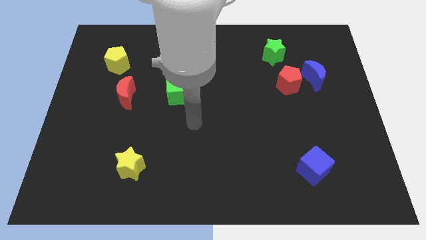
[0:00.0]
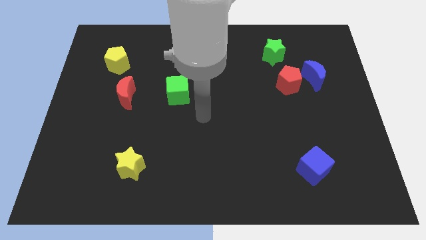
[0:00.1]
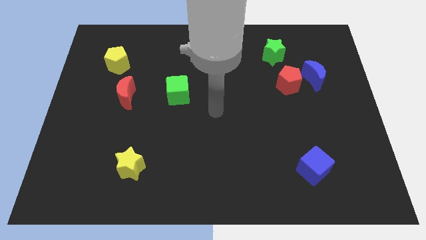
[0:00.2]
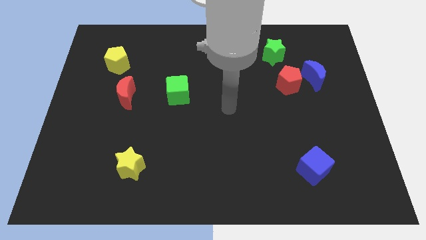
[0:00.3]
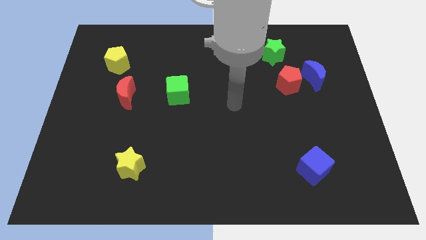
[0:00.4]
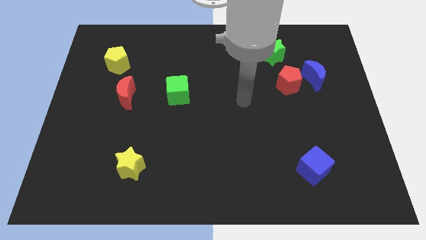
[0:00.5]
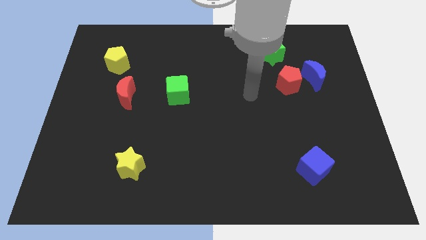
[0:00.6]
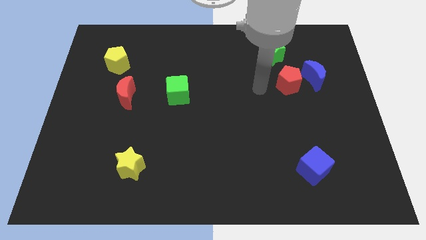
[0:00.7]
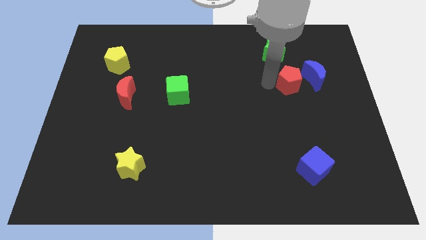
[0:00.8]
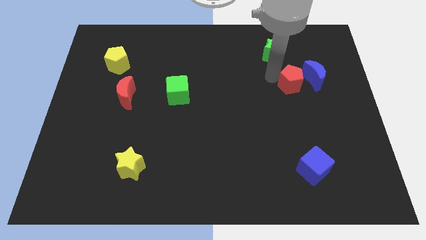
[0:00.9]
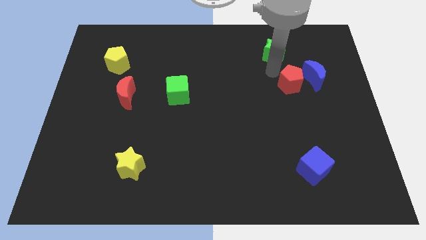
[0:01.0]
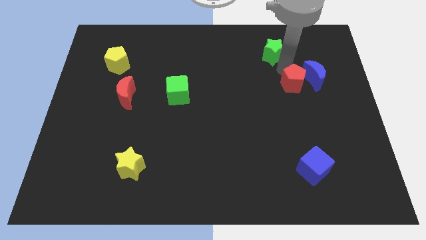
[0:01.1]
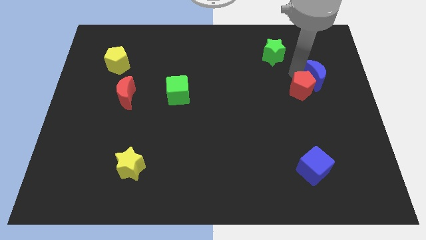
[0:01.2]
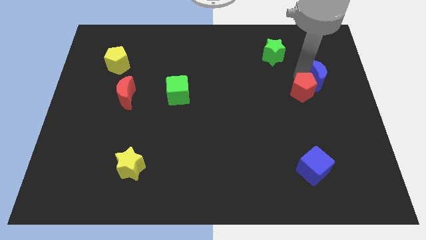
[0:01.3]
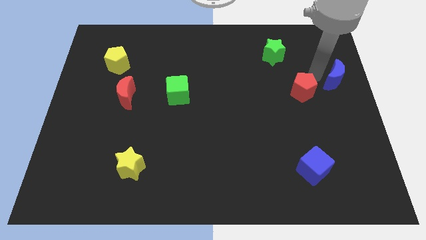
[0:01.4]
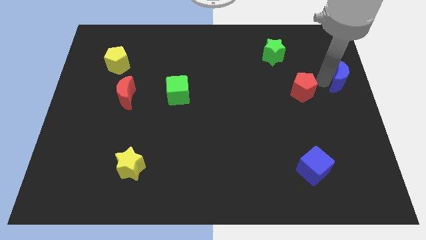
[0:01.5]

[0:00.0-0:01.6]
pull the red pentagon apart from the blue moon

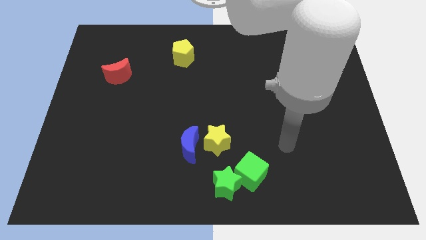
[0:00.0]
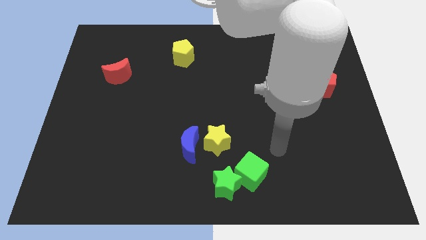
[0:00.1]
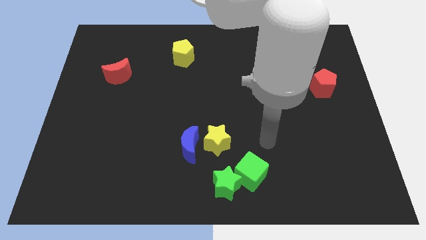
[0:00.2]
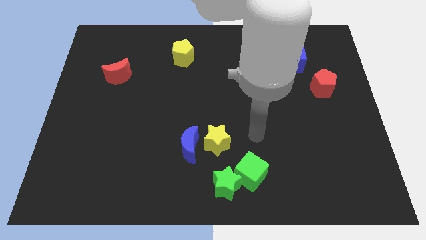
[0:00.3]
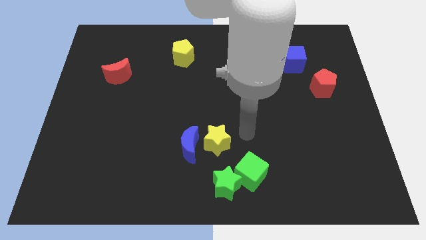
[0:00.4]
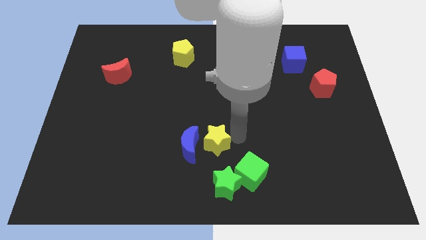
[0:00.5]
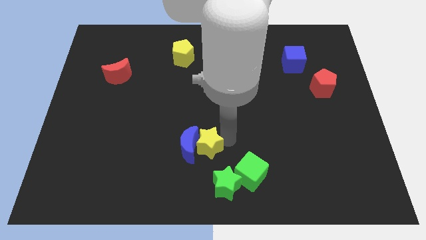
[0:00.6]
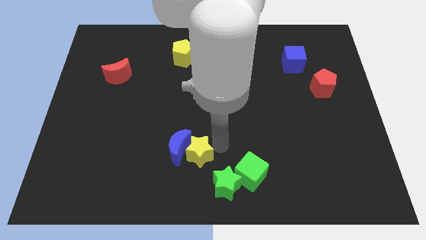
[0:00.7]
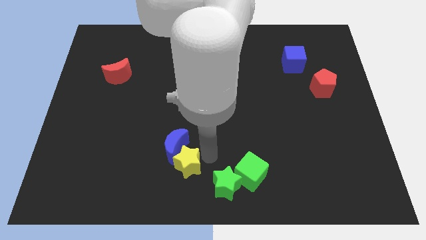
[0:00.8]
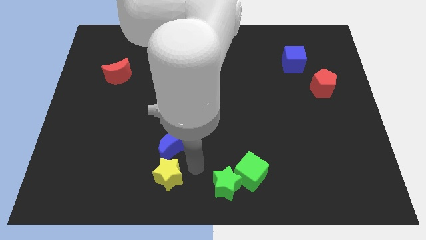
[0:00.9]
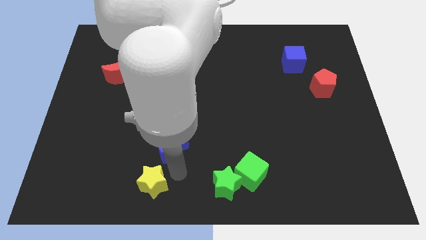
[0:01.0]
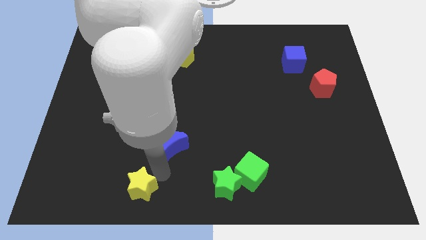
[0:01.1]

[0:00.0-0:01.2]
separate the blue moon from the yellow star

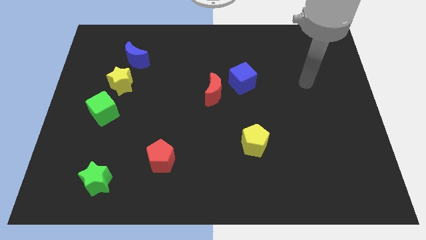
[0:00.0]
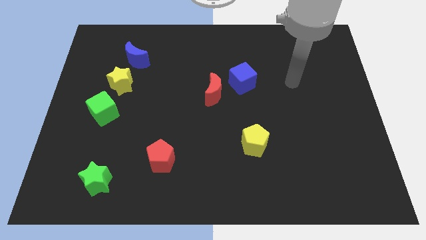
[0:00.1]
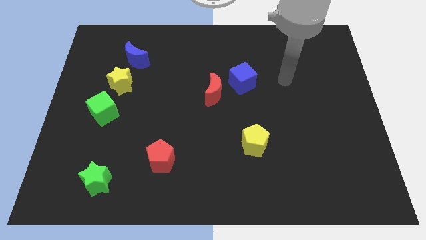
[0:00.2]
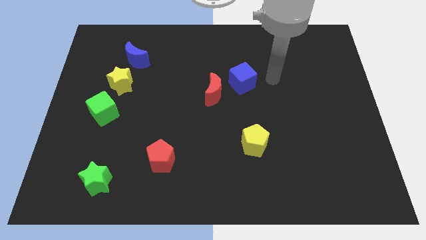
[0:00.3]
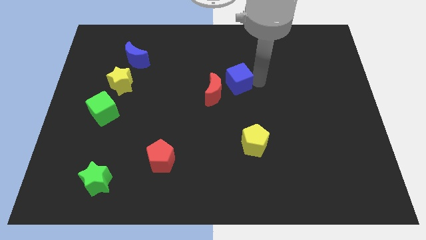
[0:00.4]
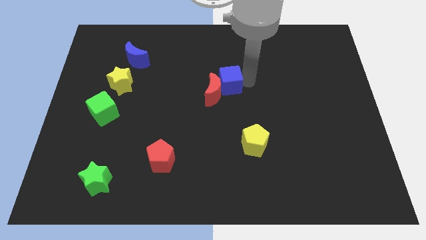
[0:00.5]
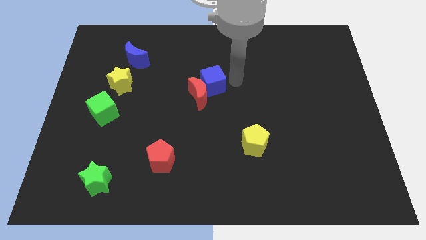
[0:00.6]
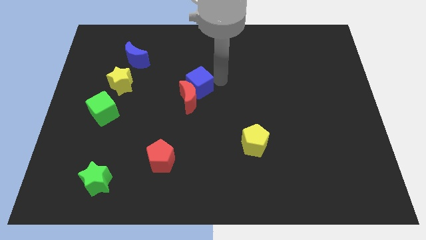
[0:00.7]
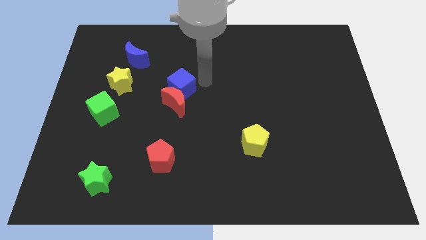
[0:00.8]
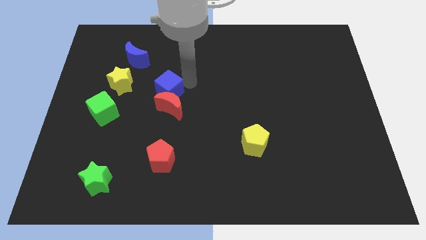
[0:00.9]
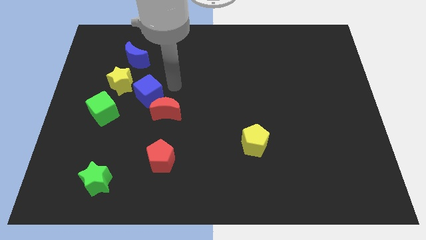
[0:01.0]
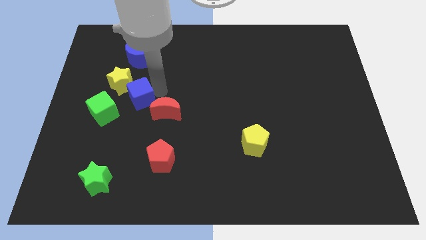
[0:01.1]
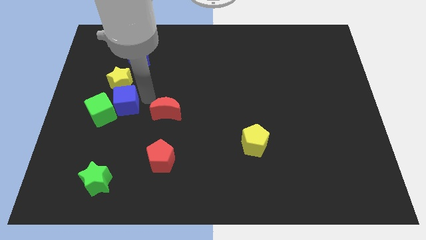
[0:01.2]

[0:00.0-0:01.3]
pull the red moon apart from the blue cube

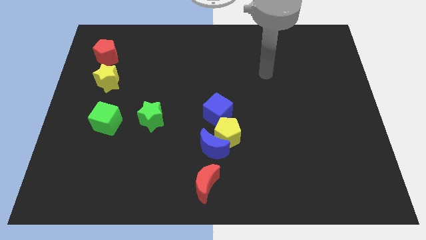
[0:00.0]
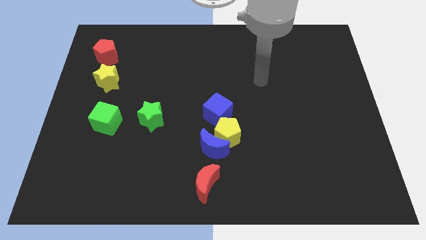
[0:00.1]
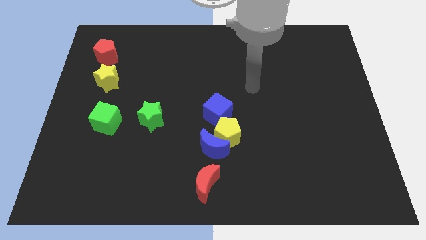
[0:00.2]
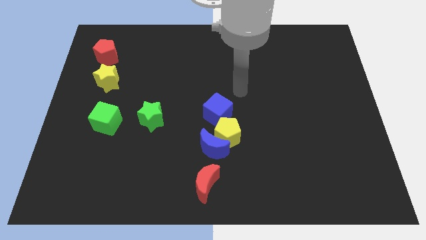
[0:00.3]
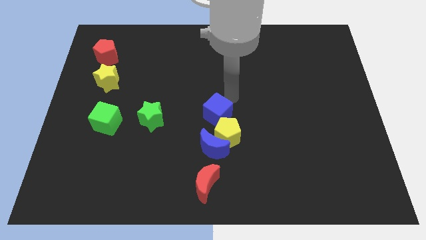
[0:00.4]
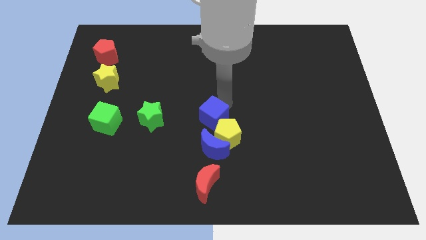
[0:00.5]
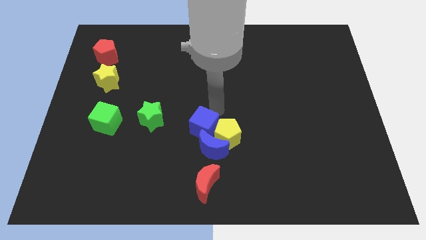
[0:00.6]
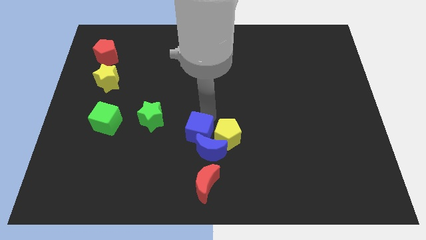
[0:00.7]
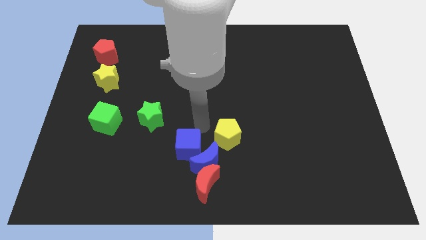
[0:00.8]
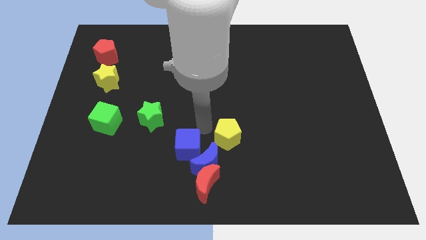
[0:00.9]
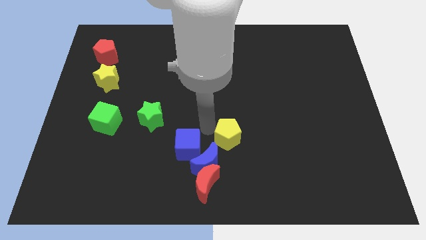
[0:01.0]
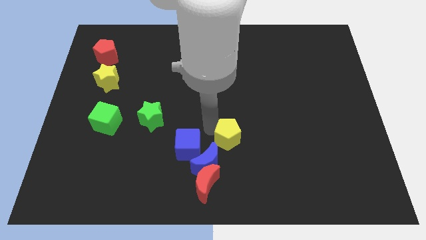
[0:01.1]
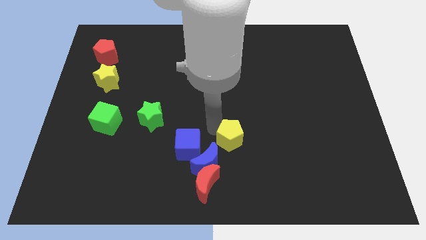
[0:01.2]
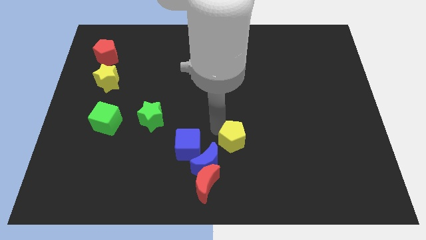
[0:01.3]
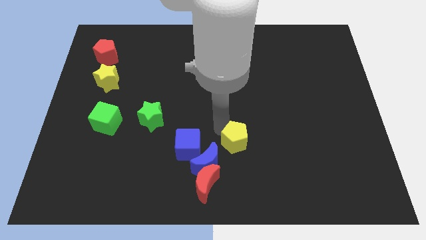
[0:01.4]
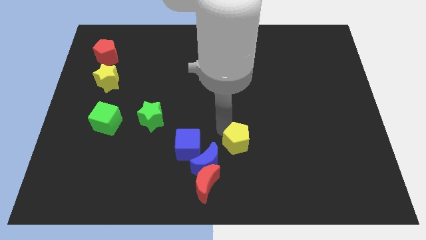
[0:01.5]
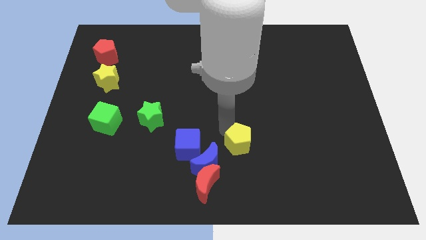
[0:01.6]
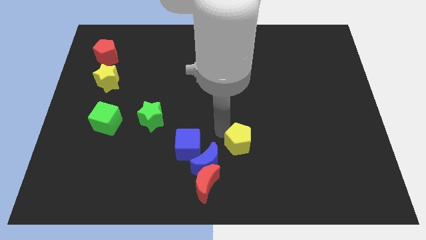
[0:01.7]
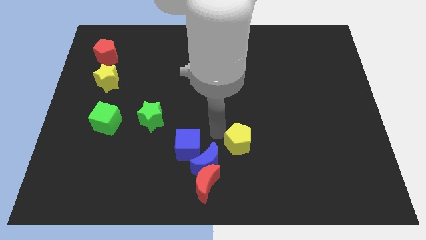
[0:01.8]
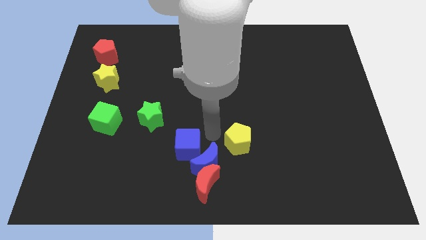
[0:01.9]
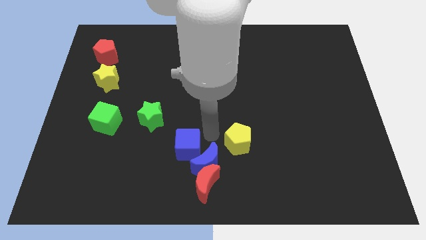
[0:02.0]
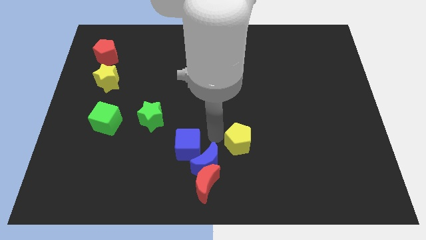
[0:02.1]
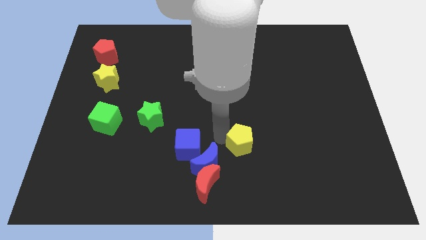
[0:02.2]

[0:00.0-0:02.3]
separate the yellow pentagon from the blue moon and blue cube

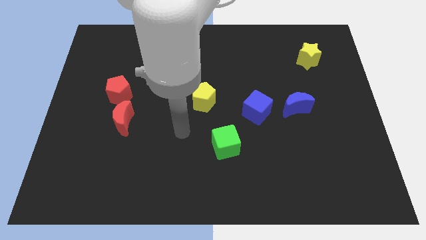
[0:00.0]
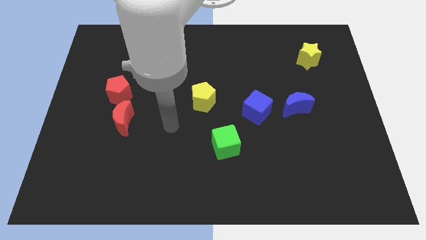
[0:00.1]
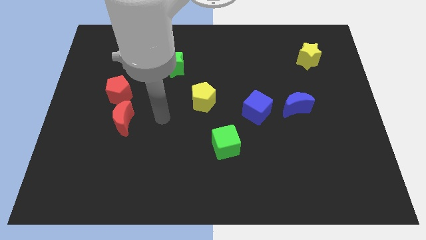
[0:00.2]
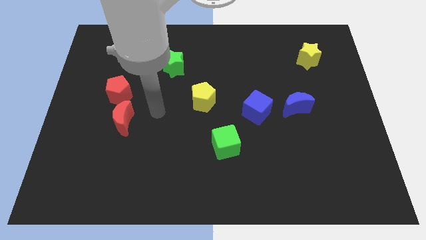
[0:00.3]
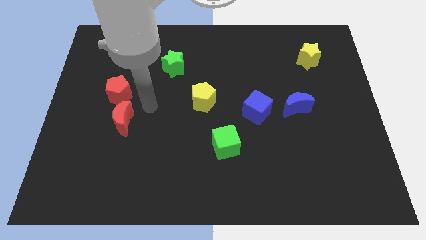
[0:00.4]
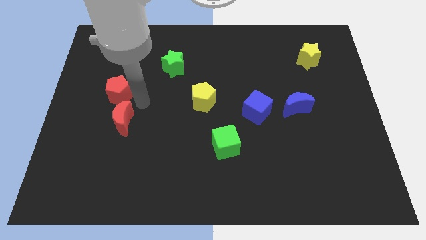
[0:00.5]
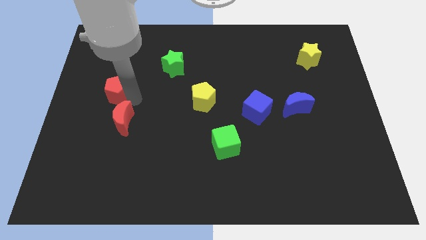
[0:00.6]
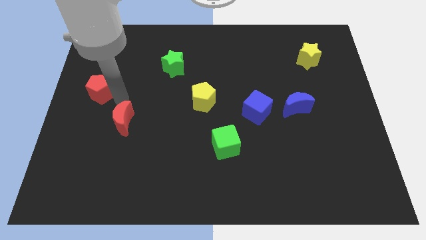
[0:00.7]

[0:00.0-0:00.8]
separate the red moon from the red pentagon

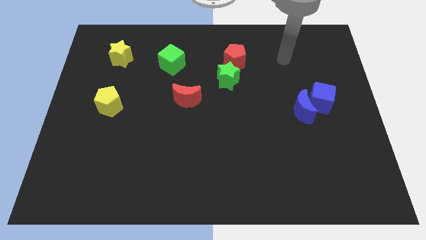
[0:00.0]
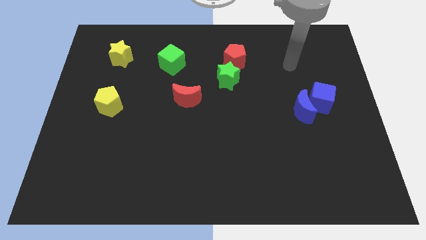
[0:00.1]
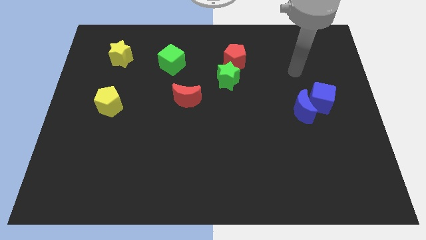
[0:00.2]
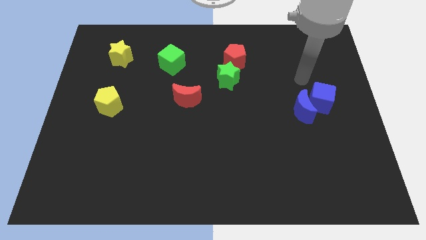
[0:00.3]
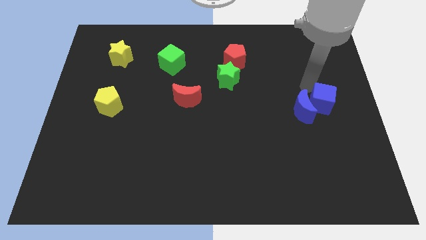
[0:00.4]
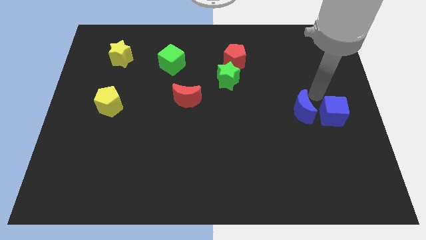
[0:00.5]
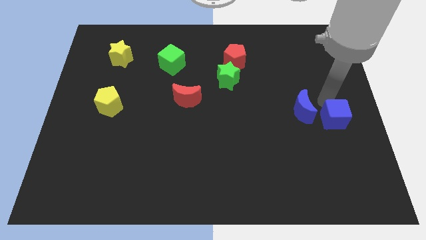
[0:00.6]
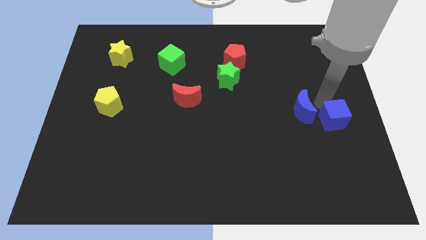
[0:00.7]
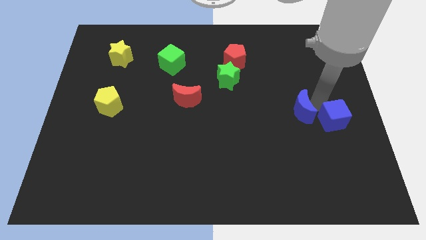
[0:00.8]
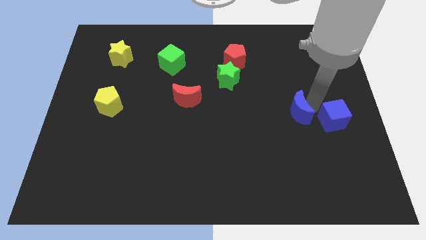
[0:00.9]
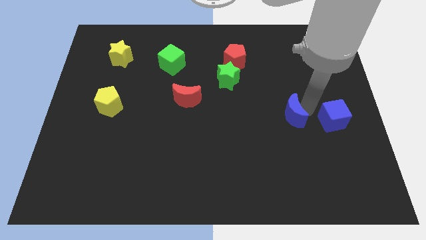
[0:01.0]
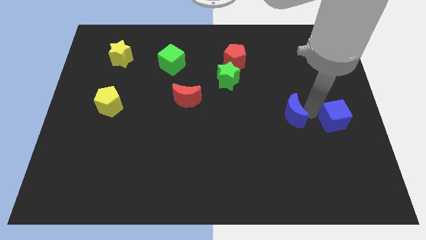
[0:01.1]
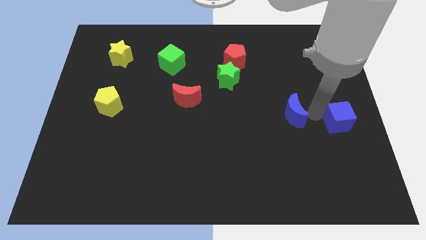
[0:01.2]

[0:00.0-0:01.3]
pull the blue moon apart from the blue cube

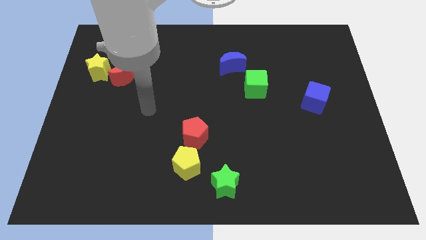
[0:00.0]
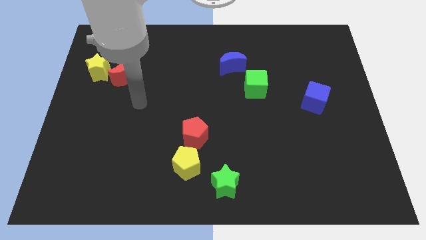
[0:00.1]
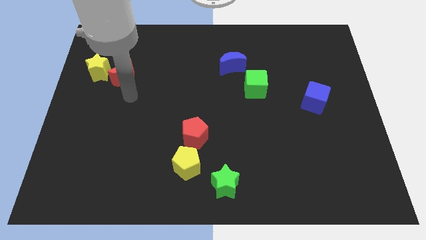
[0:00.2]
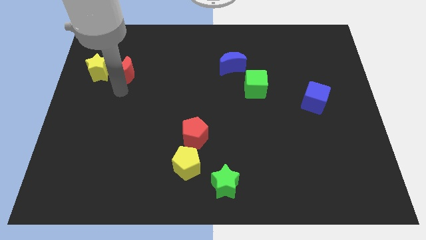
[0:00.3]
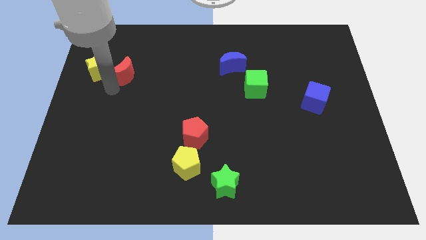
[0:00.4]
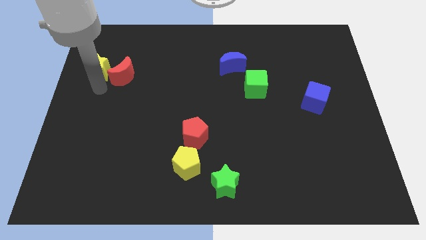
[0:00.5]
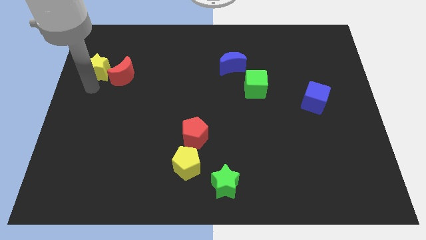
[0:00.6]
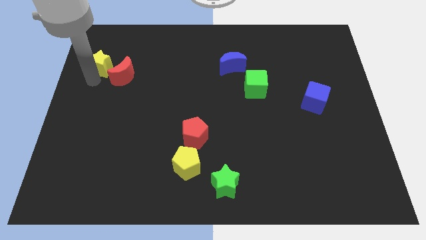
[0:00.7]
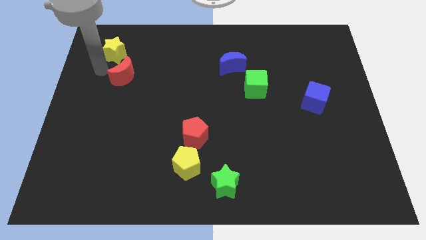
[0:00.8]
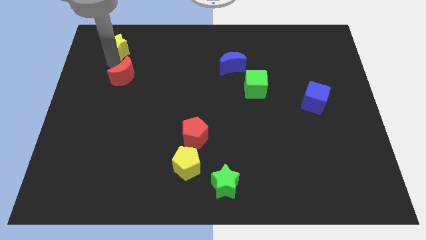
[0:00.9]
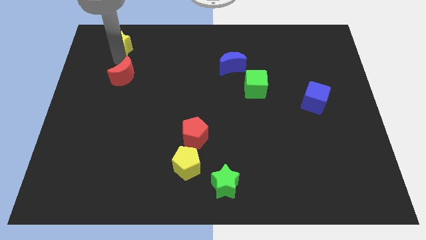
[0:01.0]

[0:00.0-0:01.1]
separate the red moon from the yellow star
